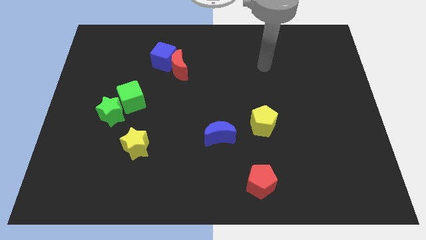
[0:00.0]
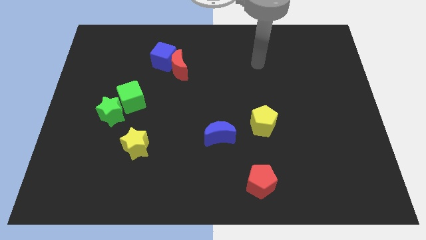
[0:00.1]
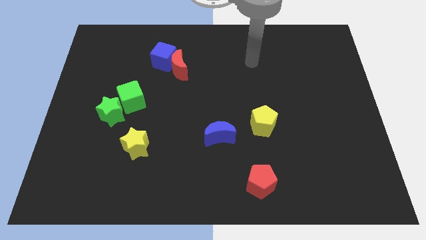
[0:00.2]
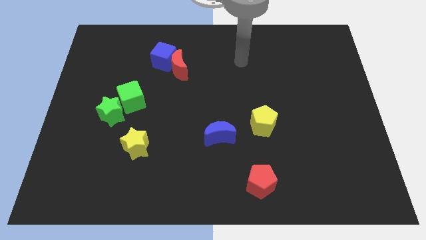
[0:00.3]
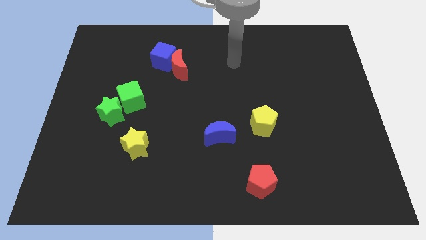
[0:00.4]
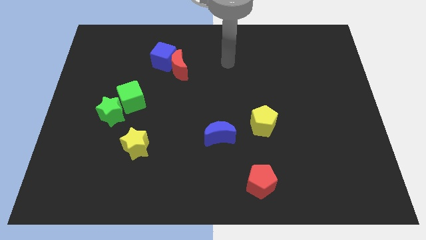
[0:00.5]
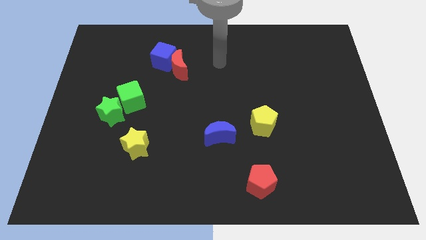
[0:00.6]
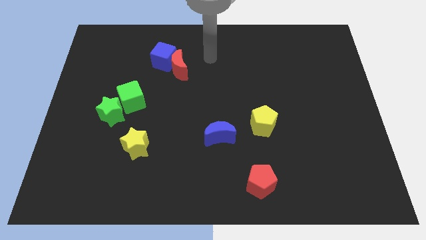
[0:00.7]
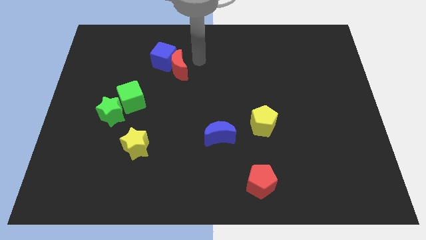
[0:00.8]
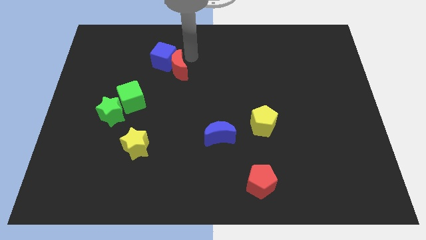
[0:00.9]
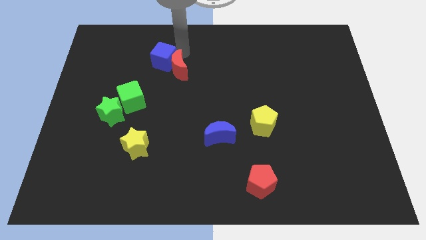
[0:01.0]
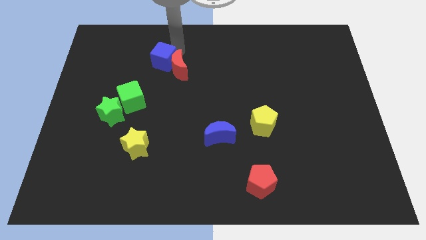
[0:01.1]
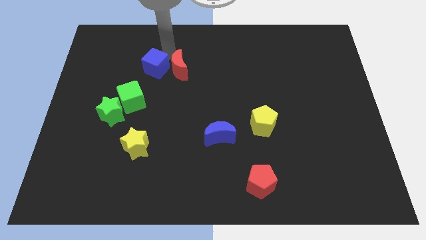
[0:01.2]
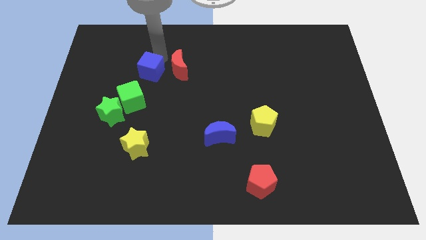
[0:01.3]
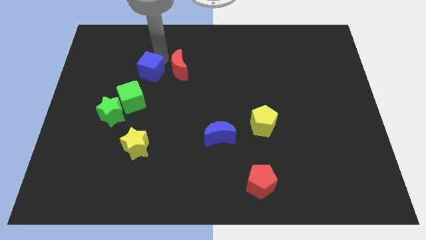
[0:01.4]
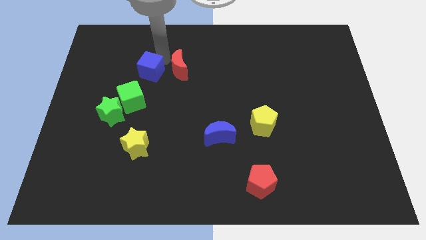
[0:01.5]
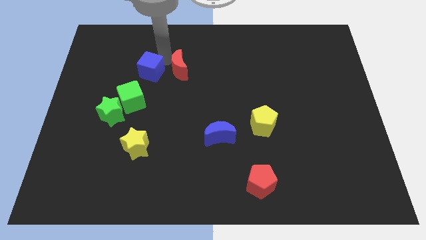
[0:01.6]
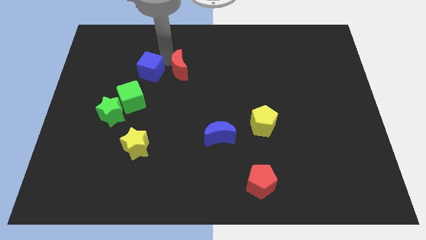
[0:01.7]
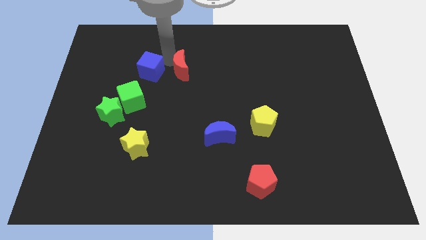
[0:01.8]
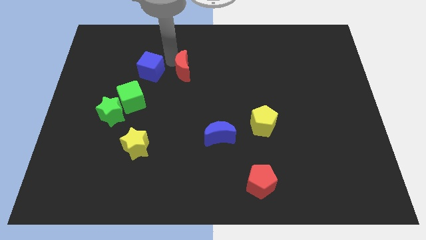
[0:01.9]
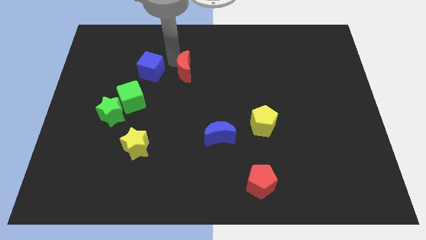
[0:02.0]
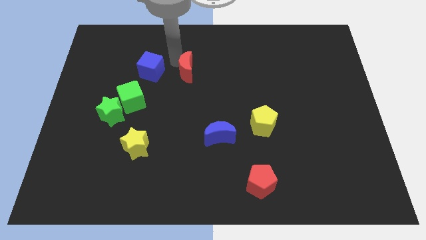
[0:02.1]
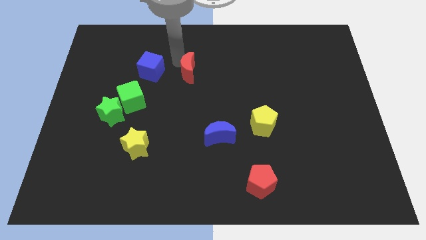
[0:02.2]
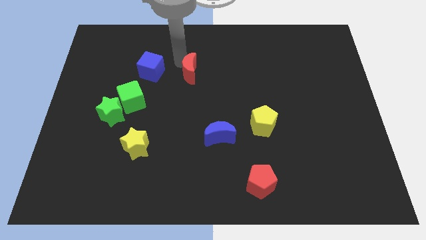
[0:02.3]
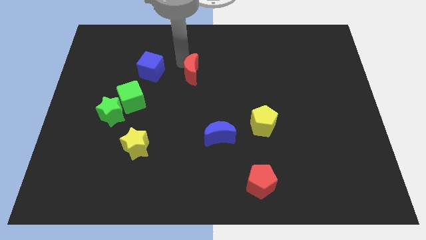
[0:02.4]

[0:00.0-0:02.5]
move the red moon away from the blue cube

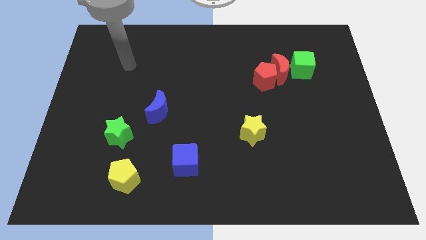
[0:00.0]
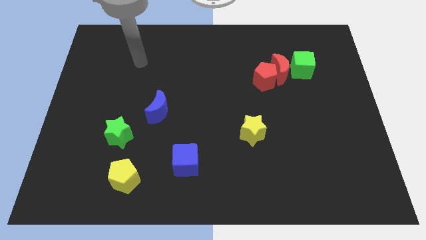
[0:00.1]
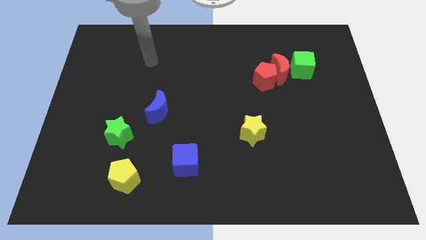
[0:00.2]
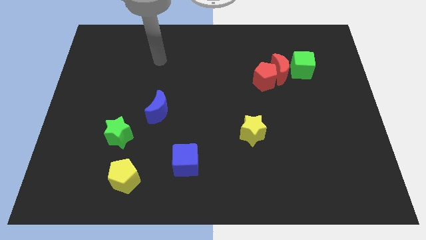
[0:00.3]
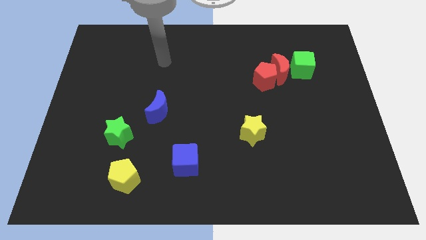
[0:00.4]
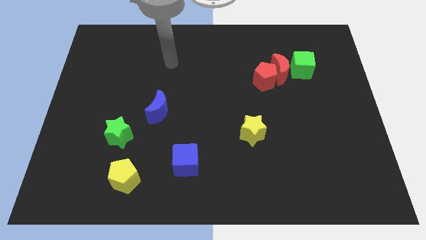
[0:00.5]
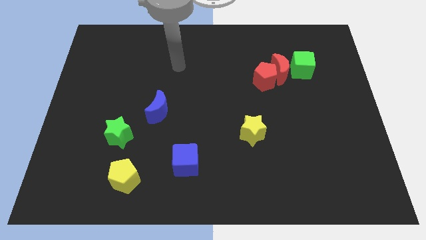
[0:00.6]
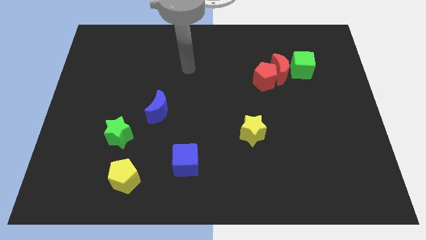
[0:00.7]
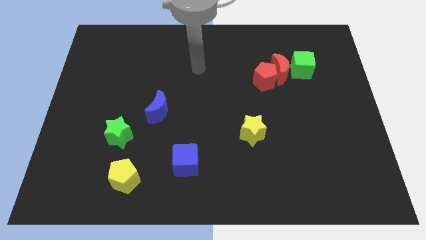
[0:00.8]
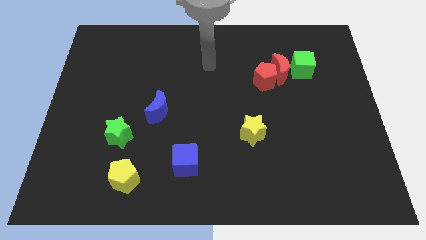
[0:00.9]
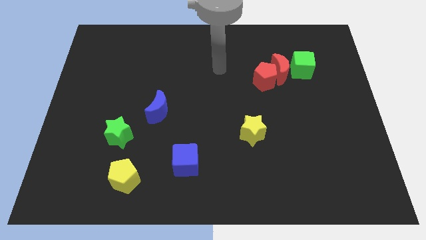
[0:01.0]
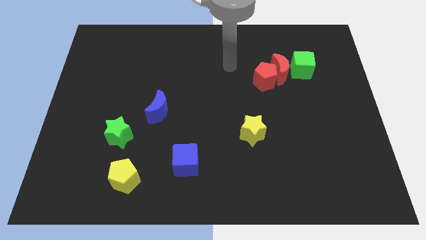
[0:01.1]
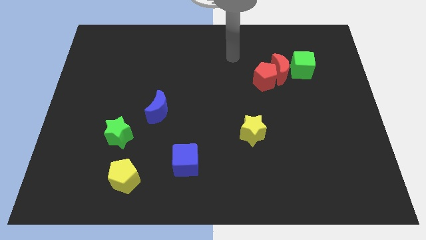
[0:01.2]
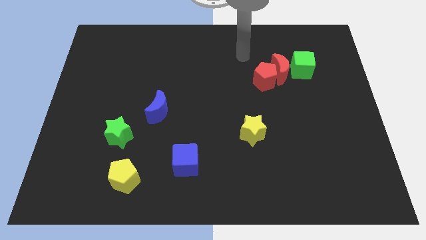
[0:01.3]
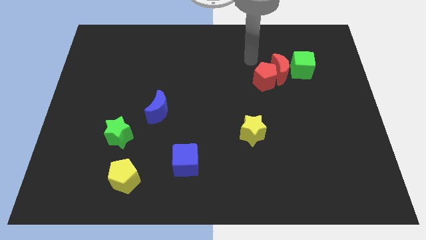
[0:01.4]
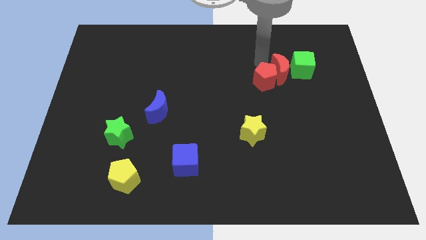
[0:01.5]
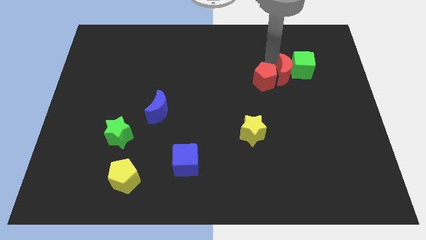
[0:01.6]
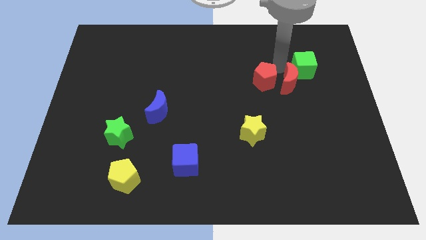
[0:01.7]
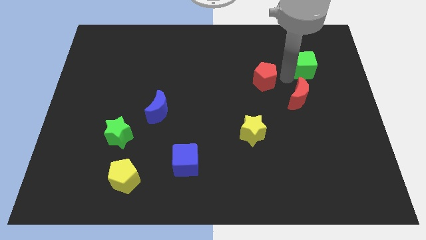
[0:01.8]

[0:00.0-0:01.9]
move the red pentagon away from the red moon

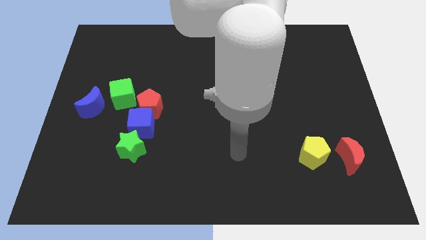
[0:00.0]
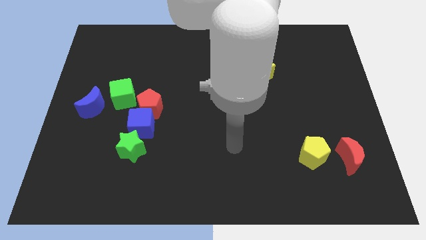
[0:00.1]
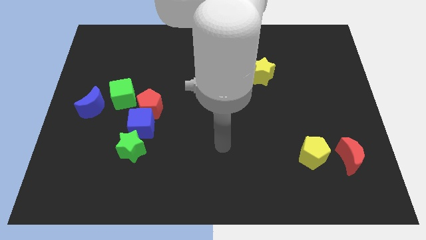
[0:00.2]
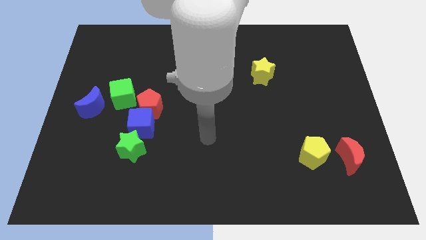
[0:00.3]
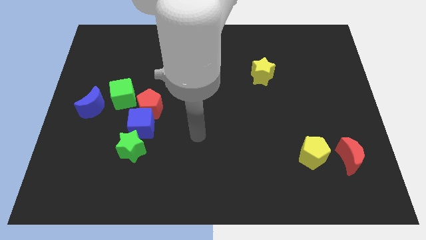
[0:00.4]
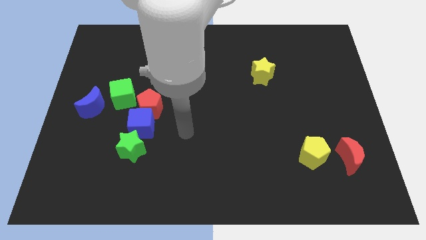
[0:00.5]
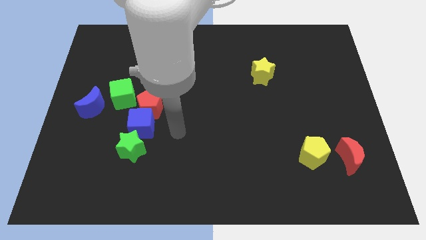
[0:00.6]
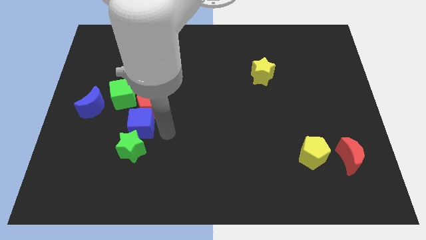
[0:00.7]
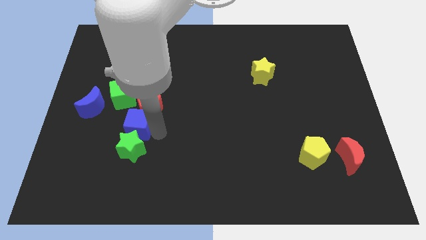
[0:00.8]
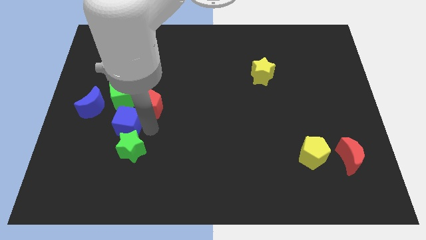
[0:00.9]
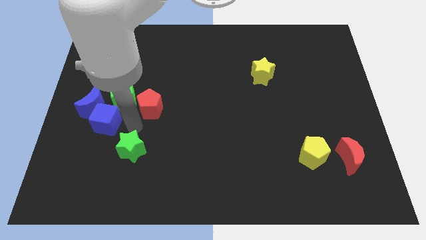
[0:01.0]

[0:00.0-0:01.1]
move the green star away from the blue cube

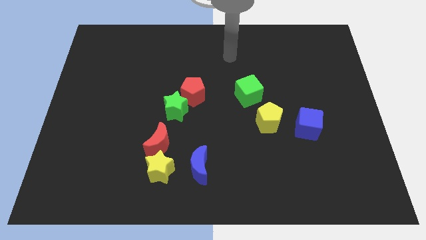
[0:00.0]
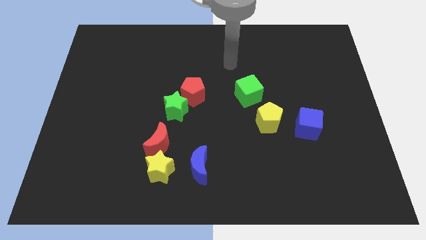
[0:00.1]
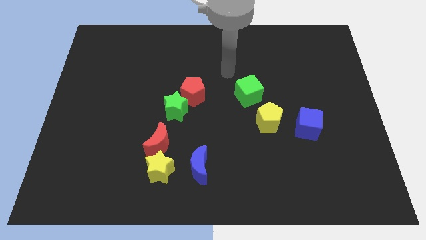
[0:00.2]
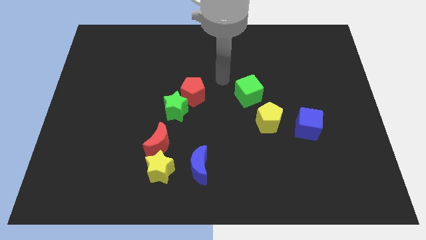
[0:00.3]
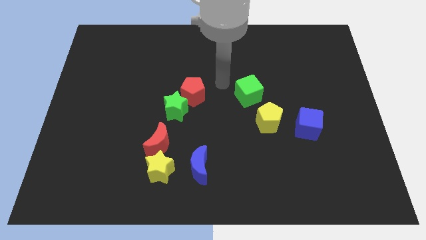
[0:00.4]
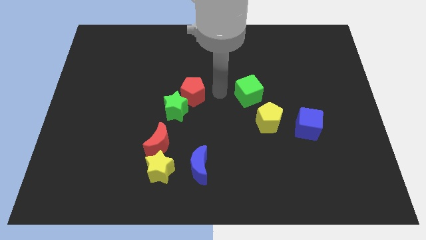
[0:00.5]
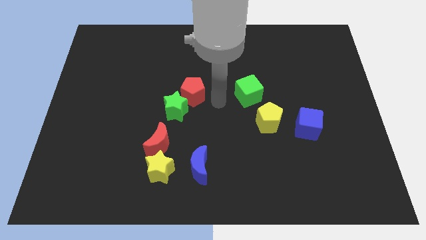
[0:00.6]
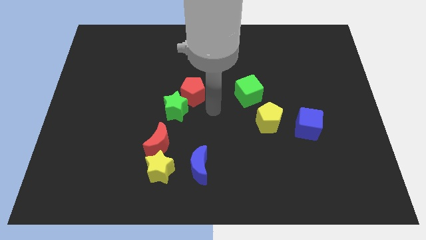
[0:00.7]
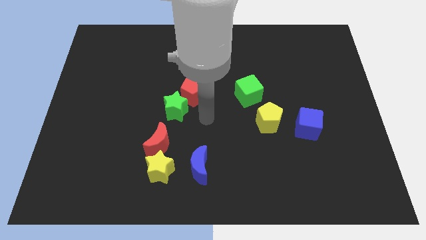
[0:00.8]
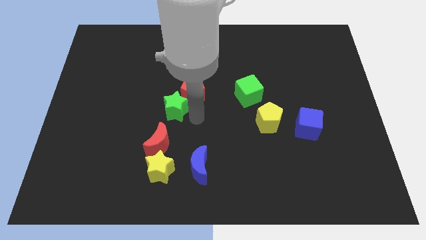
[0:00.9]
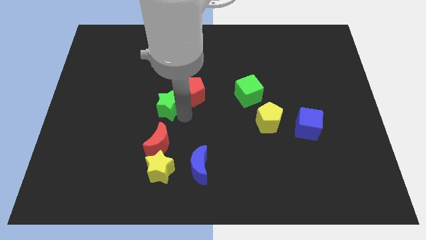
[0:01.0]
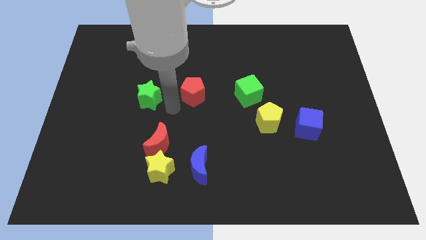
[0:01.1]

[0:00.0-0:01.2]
move the red pentagon away from the green star

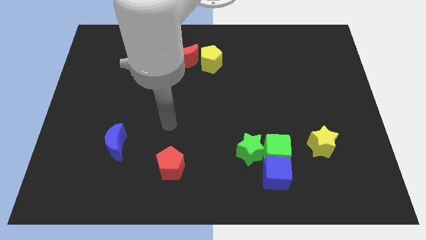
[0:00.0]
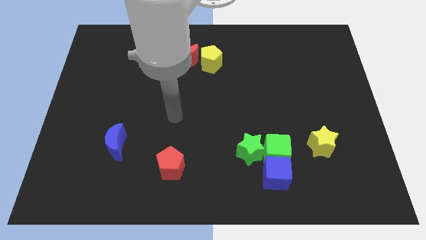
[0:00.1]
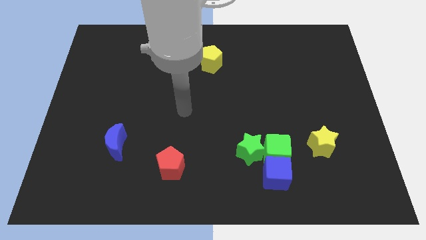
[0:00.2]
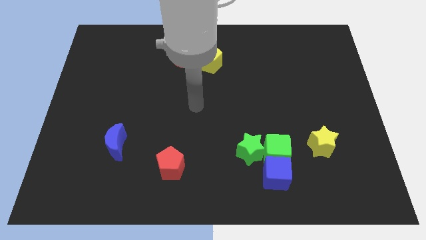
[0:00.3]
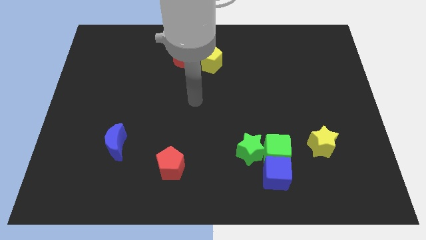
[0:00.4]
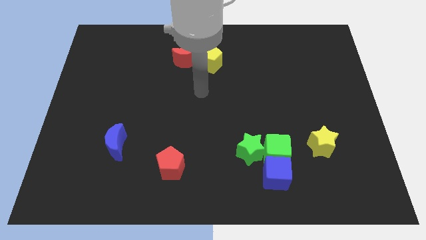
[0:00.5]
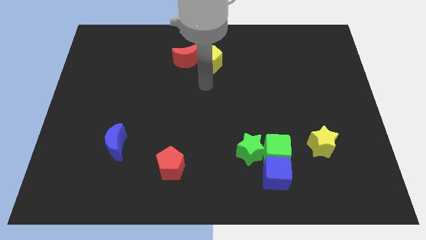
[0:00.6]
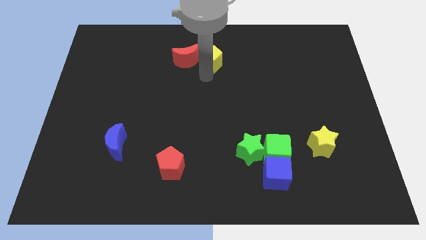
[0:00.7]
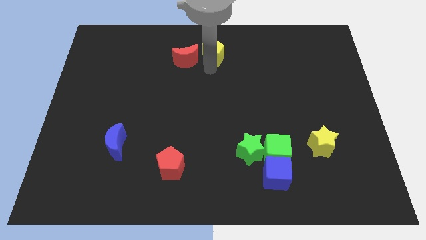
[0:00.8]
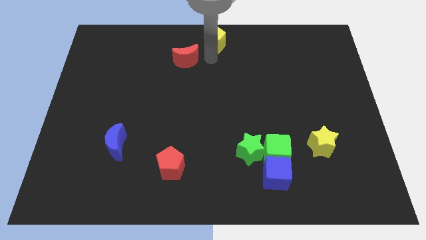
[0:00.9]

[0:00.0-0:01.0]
pull the red moon apart from the yellow pentagon

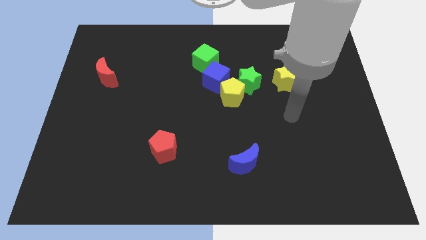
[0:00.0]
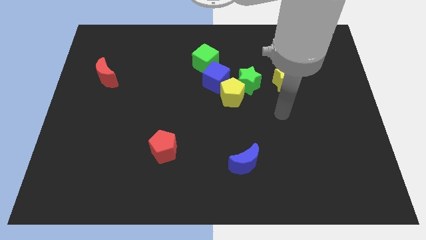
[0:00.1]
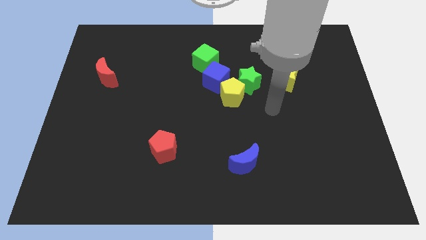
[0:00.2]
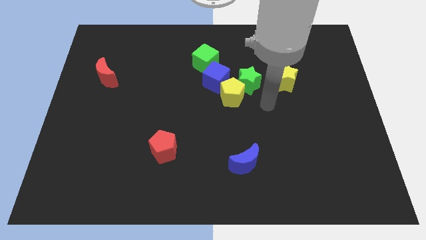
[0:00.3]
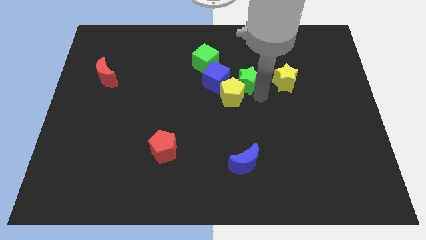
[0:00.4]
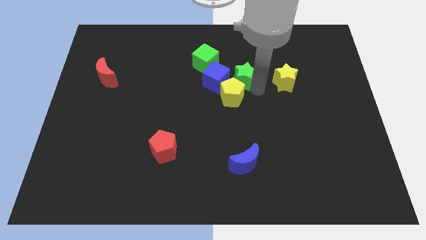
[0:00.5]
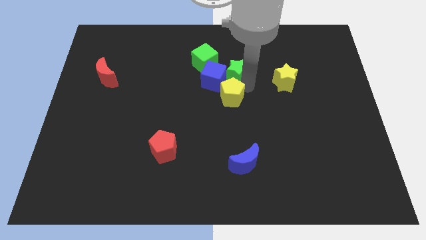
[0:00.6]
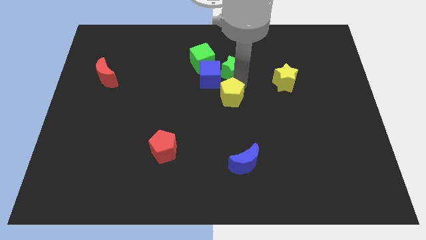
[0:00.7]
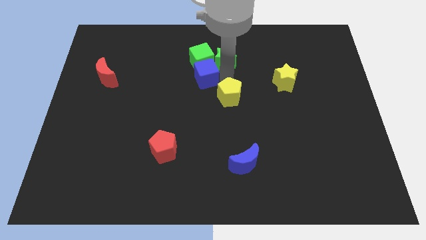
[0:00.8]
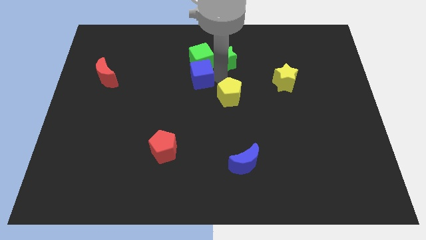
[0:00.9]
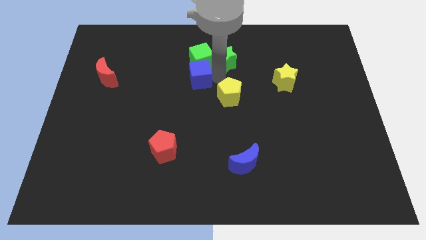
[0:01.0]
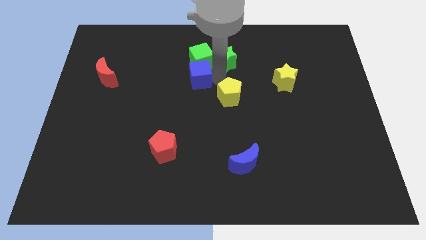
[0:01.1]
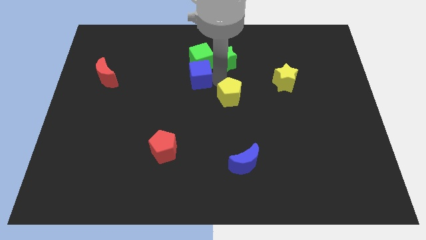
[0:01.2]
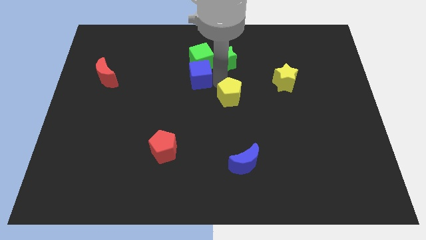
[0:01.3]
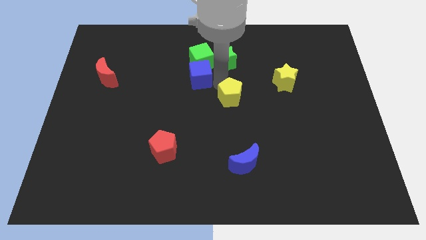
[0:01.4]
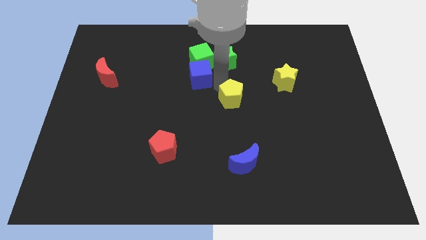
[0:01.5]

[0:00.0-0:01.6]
separate the yellow pentagon from the green star and blue cube

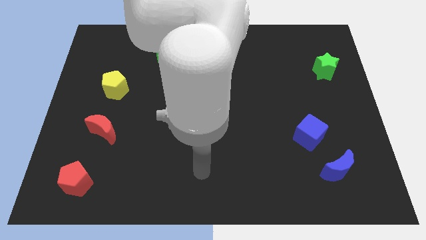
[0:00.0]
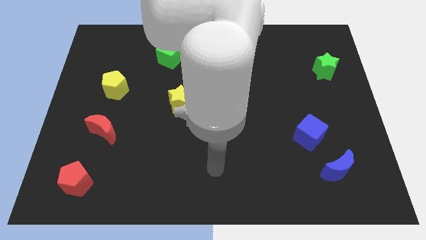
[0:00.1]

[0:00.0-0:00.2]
move the blue moon away from the blue cube
